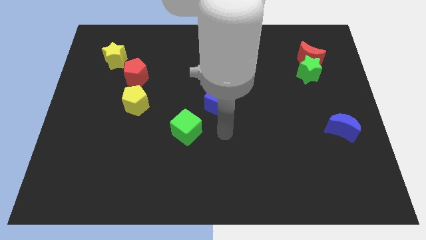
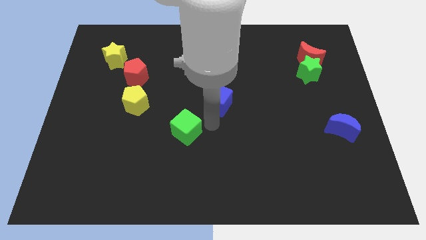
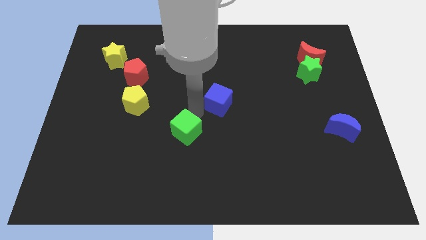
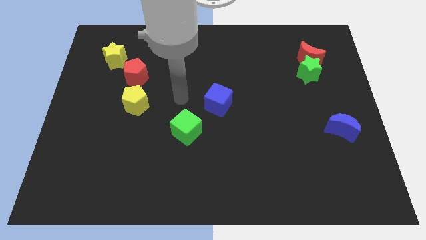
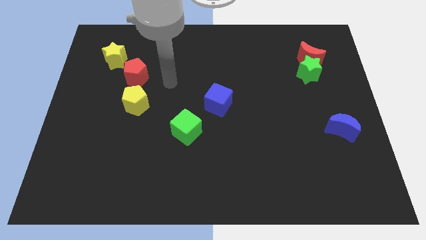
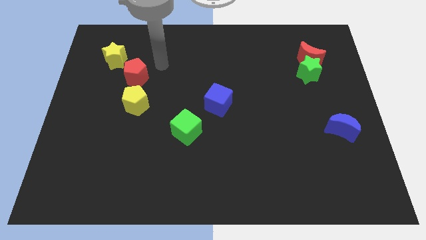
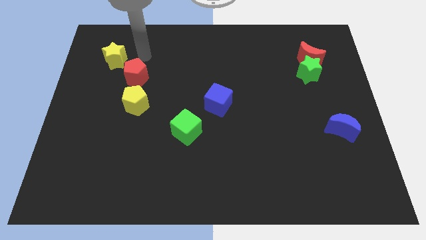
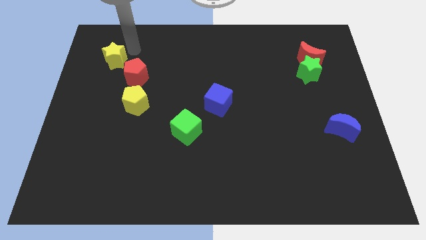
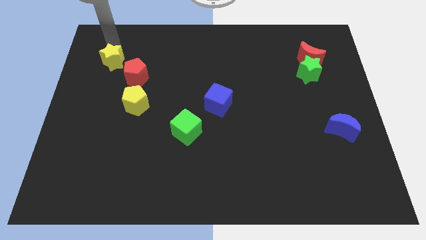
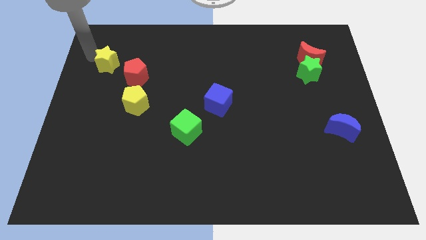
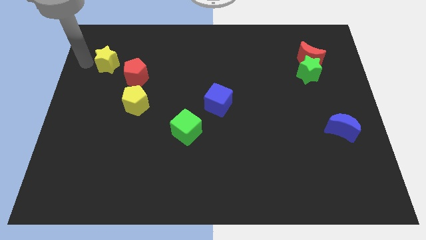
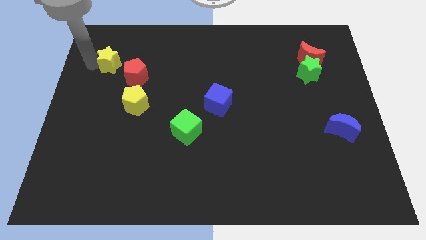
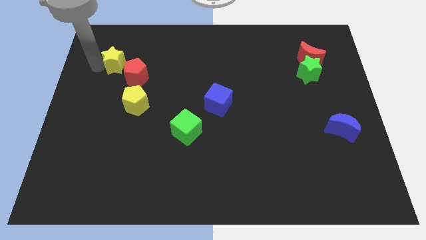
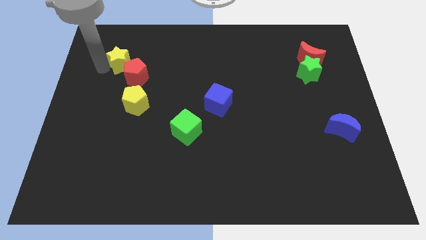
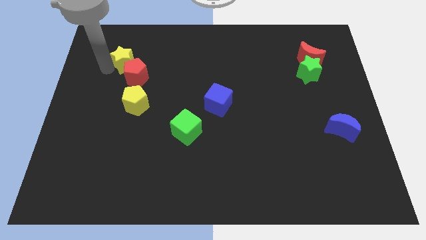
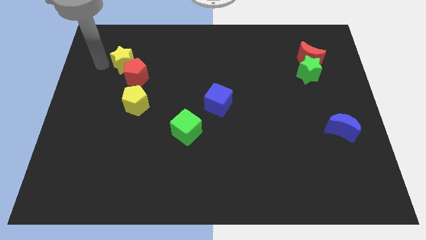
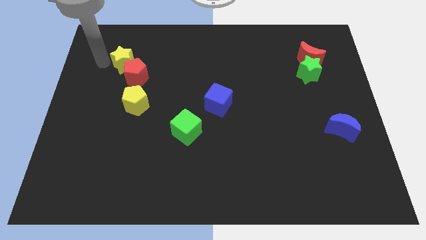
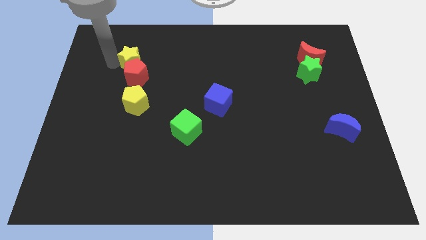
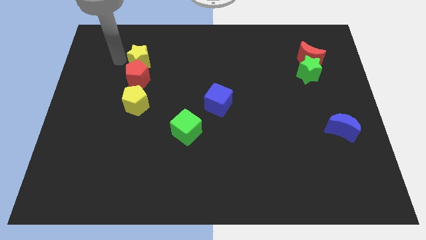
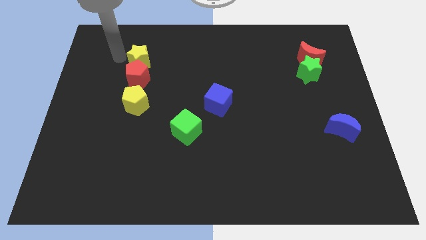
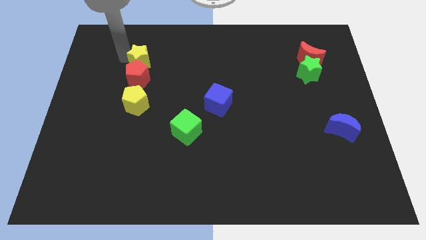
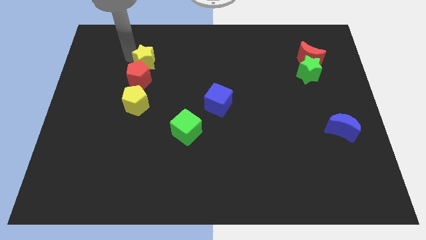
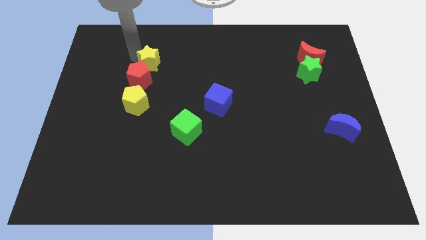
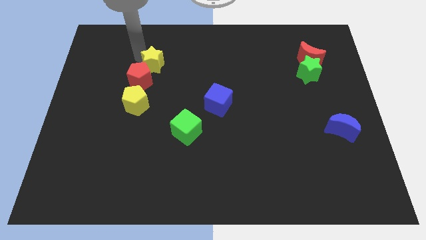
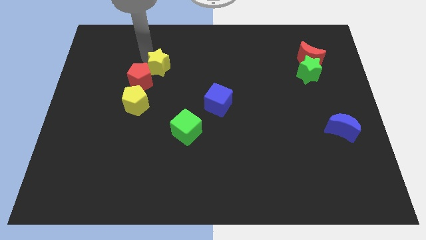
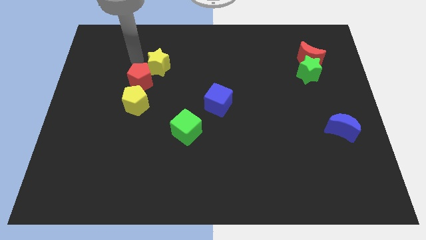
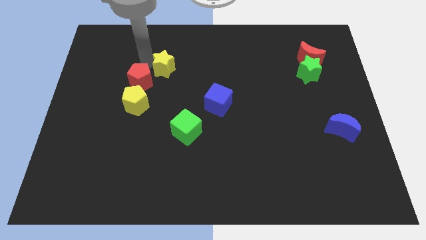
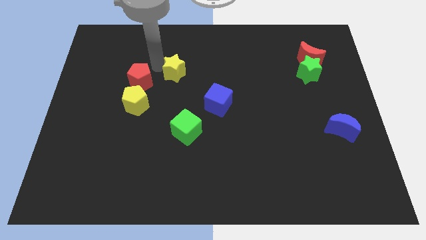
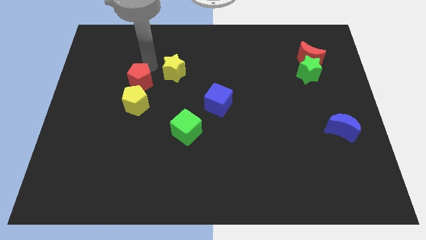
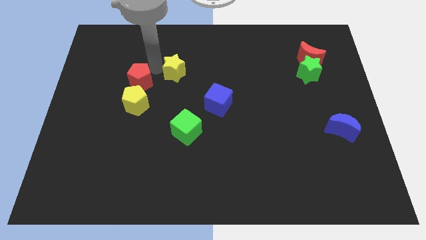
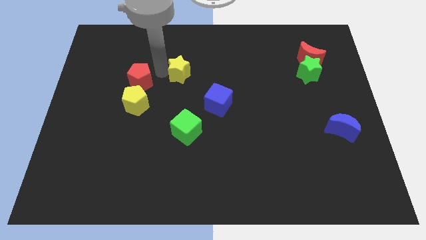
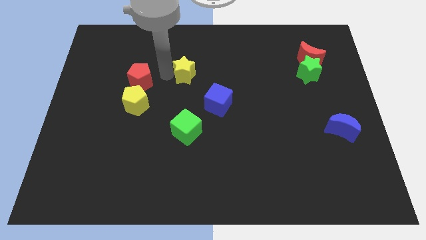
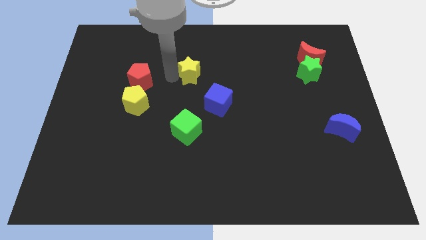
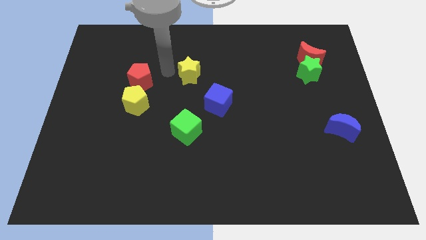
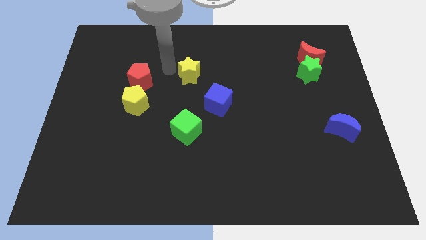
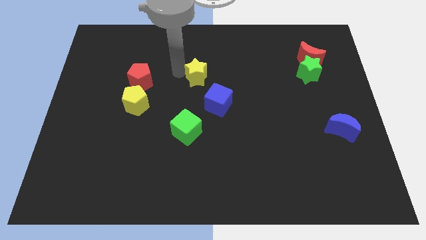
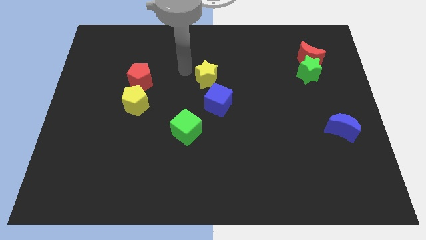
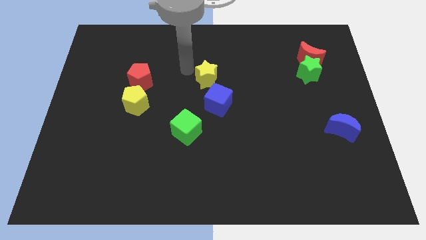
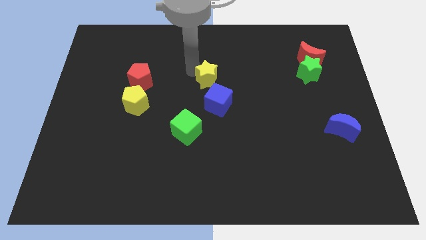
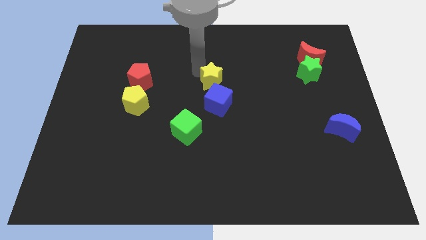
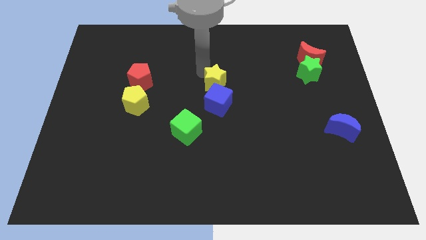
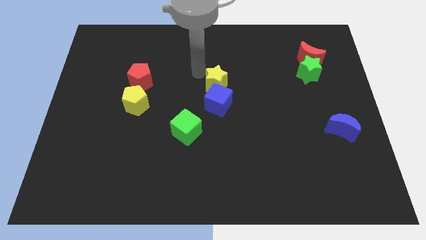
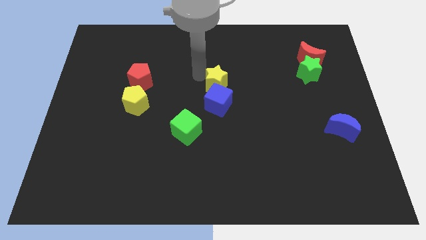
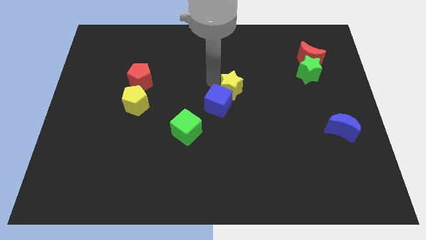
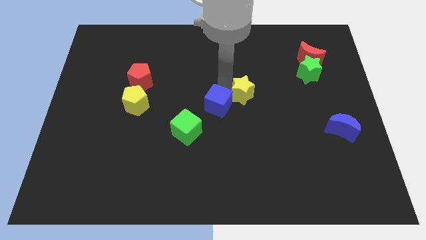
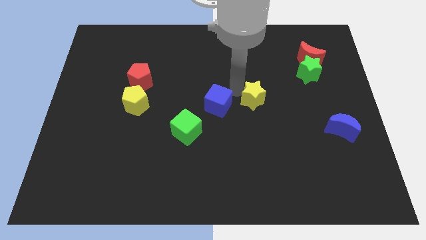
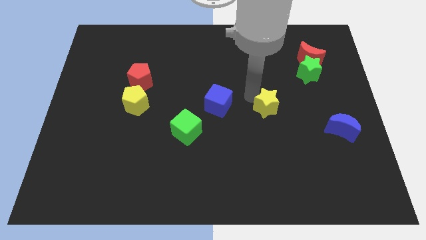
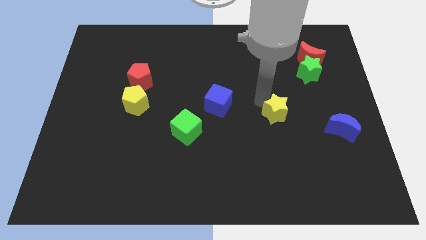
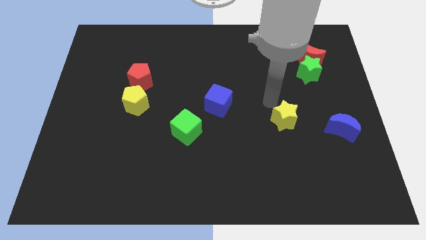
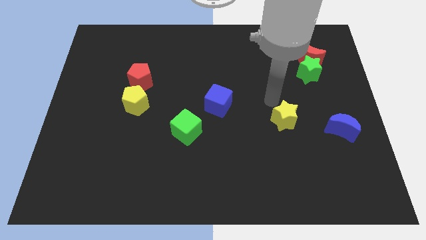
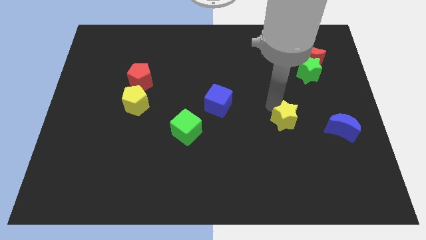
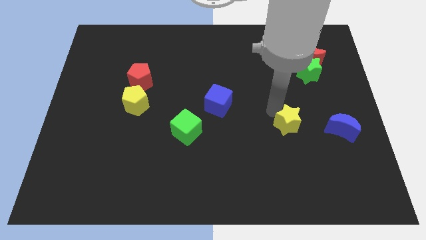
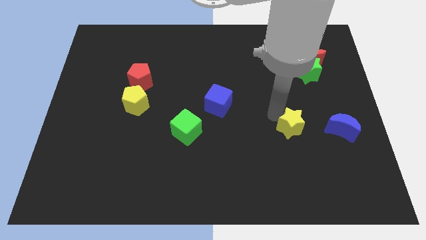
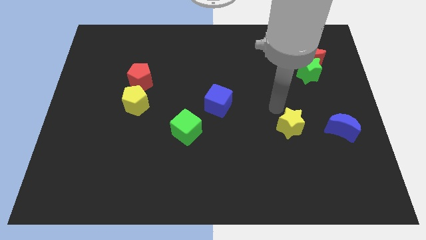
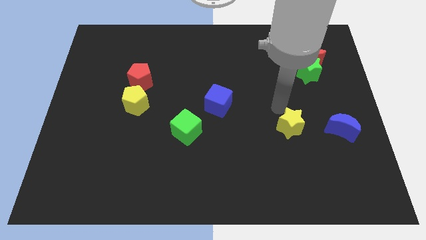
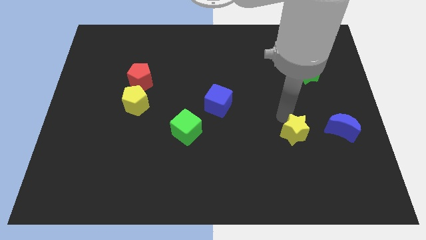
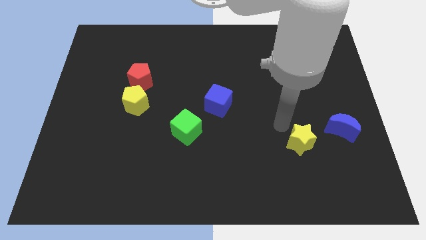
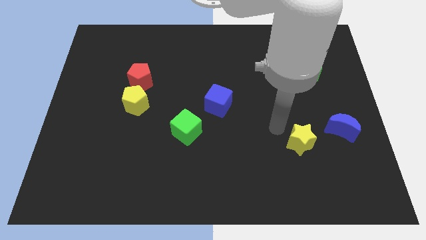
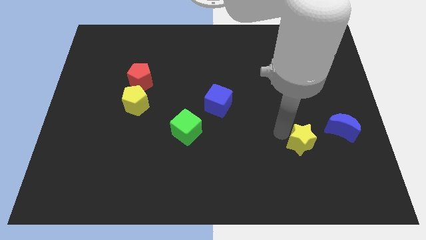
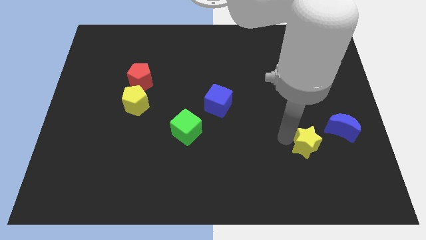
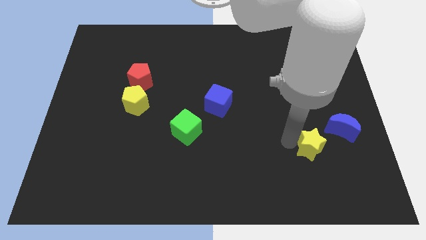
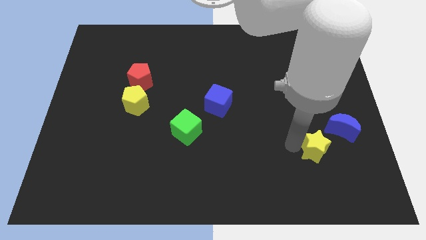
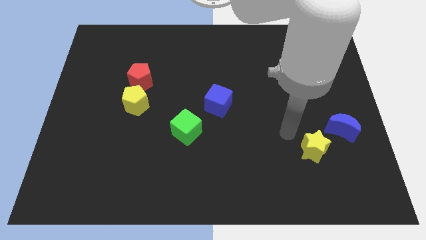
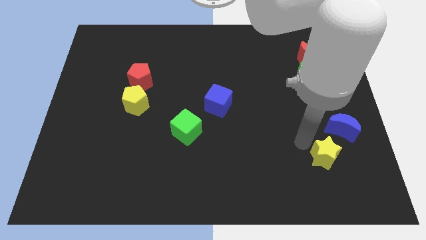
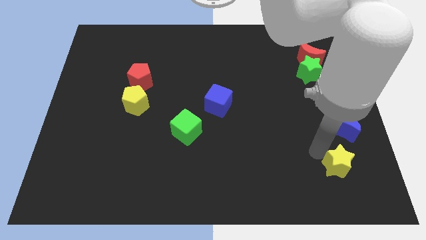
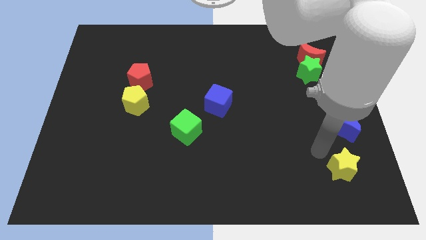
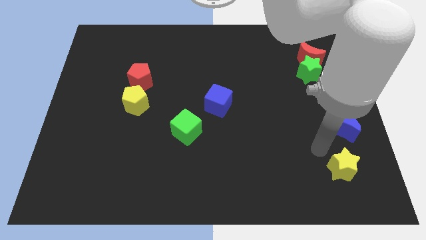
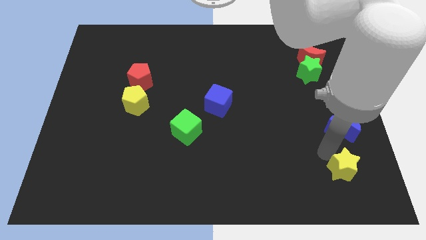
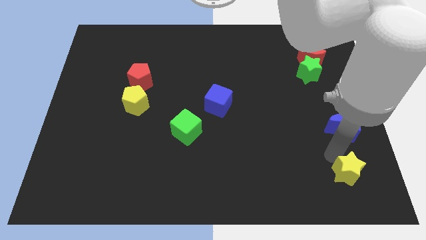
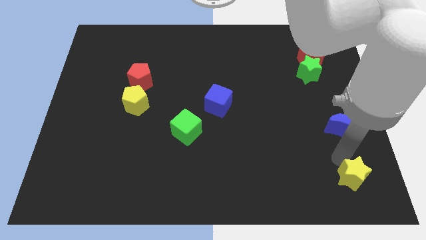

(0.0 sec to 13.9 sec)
slide the yellow star to the bottom right corner

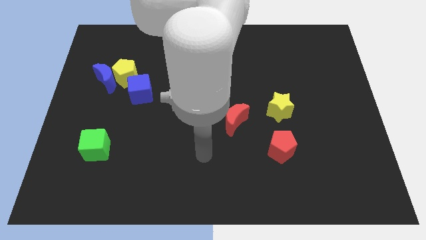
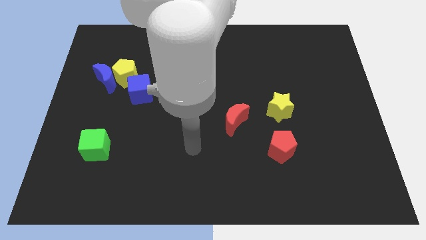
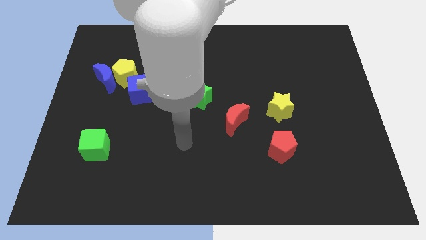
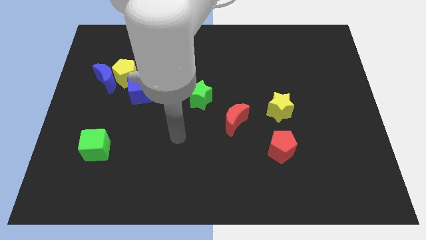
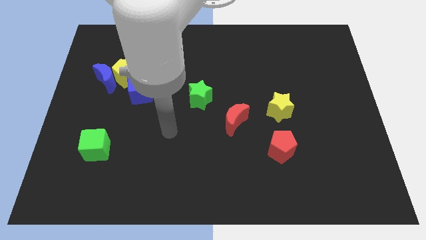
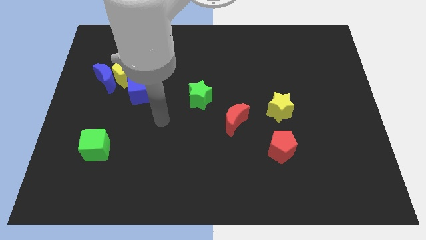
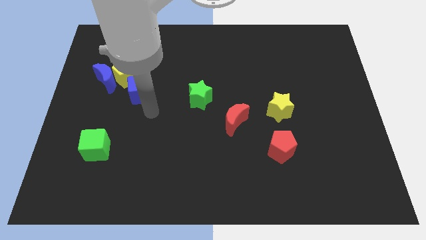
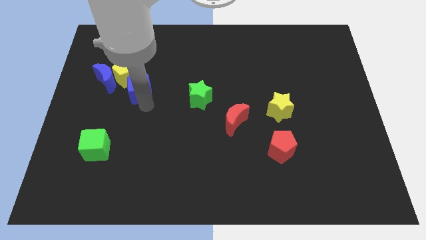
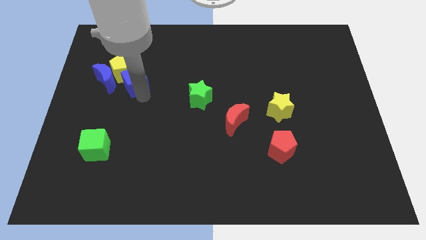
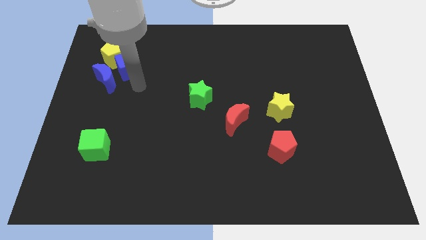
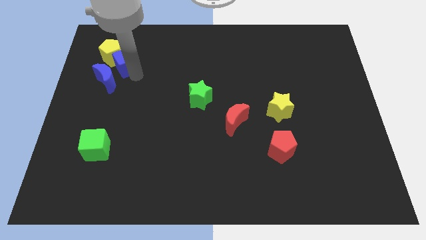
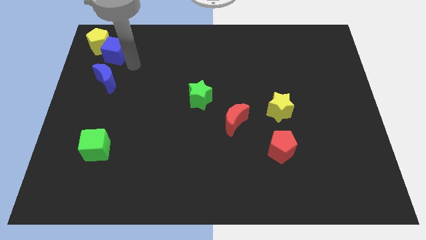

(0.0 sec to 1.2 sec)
push the yellow pentagon to the top left corner
